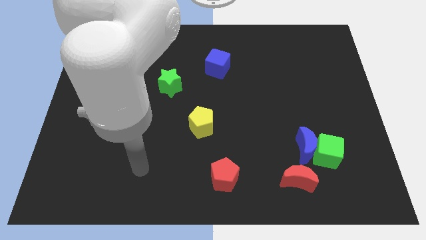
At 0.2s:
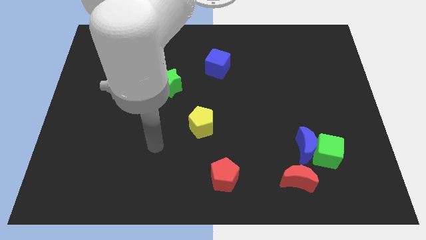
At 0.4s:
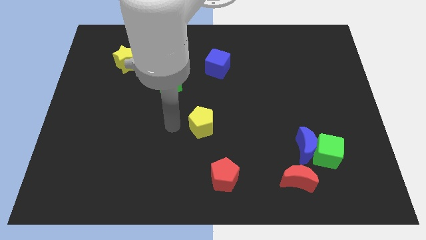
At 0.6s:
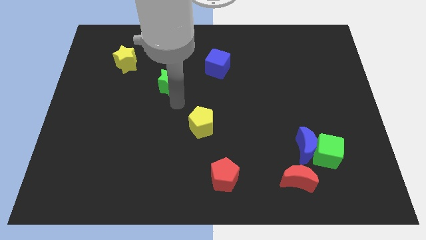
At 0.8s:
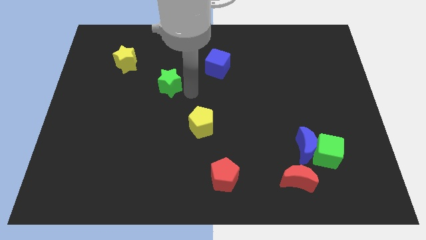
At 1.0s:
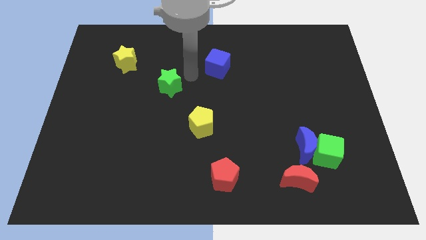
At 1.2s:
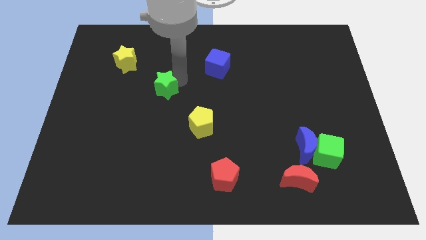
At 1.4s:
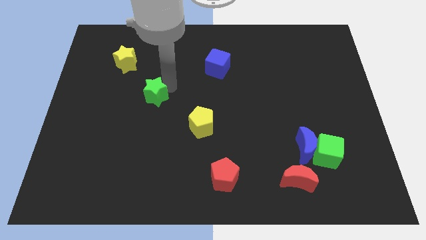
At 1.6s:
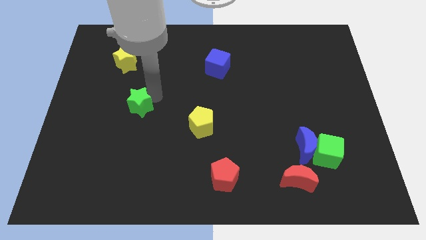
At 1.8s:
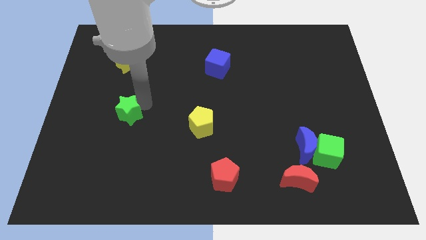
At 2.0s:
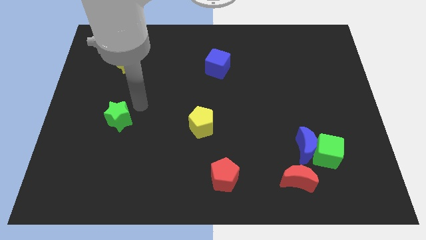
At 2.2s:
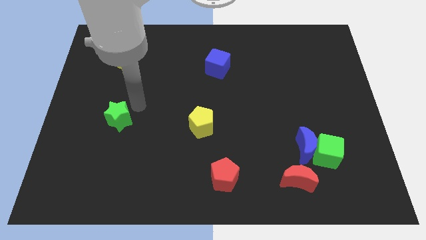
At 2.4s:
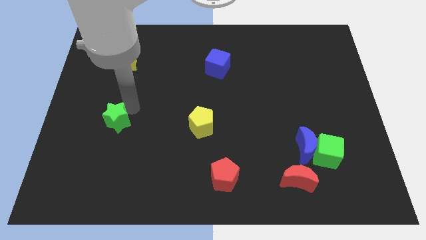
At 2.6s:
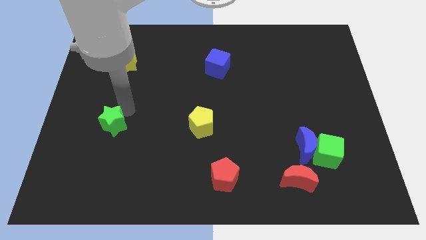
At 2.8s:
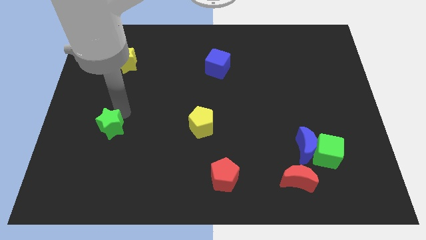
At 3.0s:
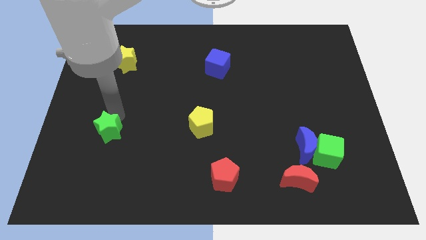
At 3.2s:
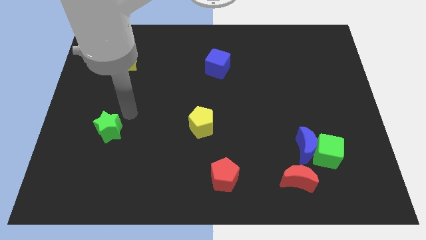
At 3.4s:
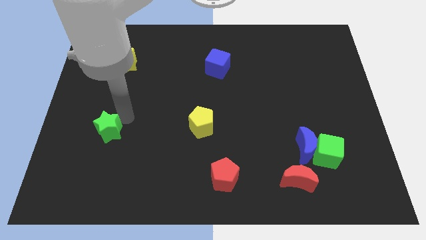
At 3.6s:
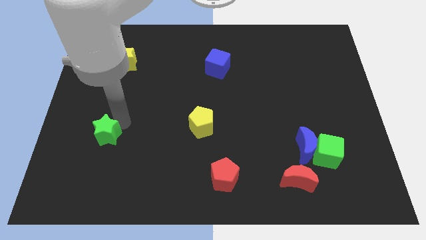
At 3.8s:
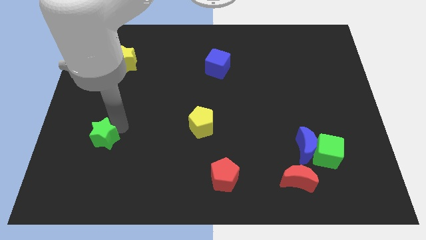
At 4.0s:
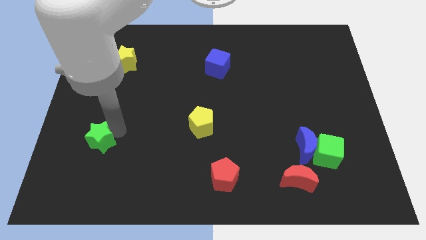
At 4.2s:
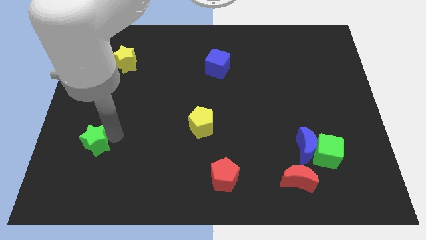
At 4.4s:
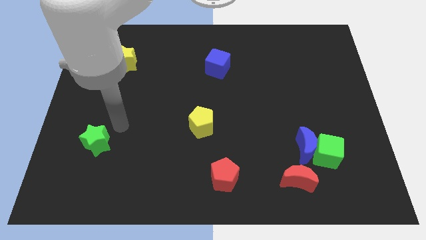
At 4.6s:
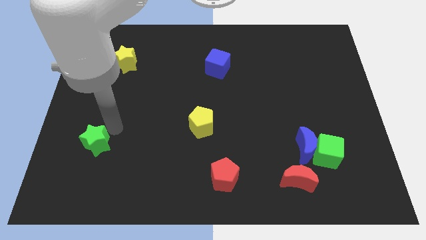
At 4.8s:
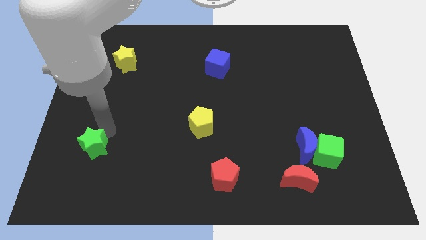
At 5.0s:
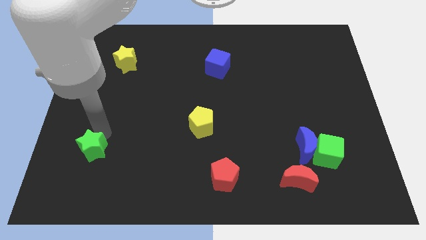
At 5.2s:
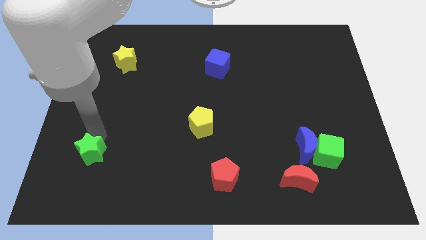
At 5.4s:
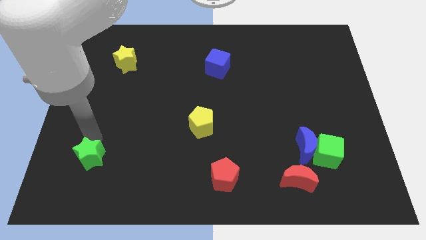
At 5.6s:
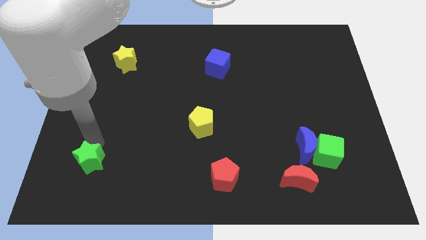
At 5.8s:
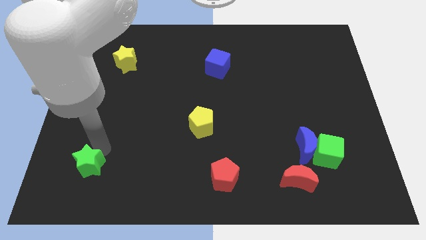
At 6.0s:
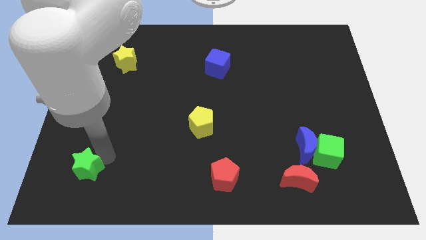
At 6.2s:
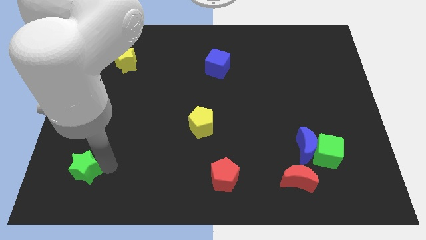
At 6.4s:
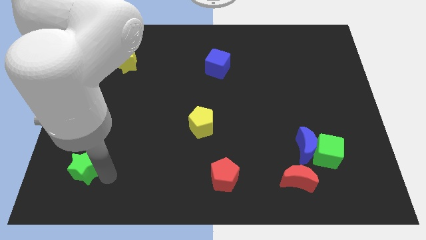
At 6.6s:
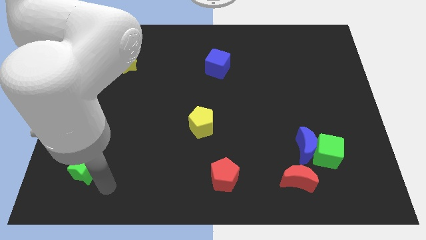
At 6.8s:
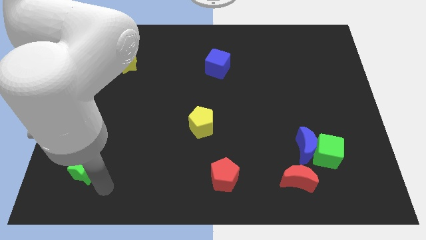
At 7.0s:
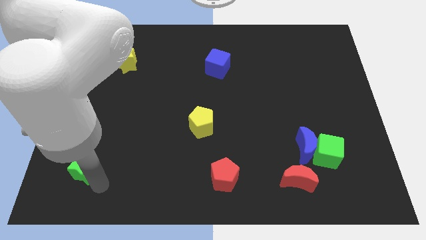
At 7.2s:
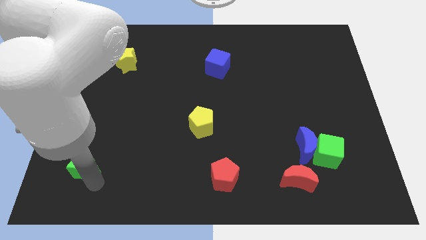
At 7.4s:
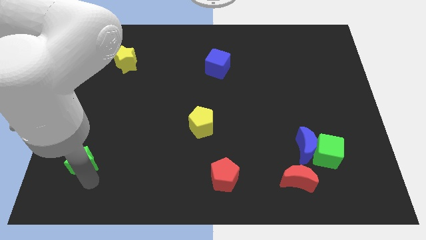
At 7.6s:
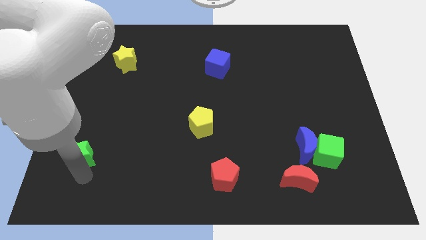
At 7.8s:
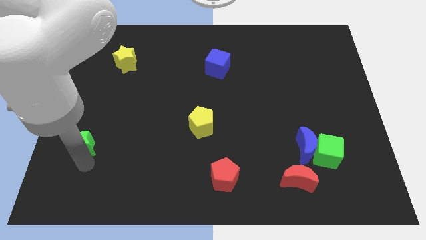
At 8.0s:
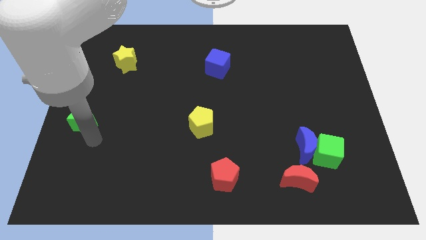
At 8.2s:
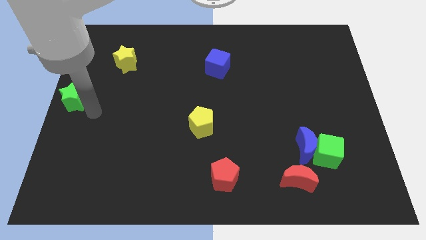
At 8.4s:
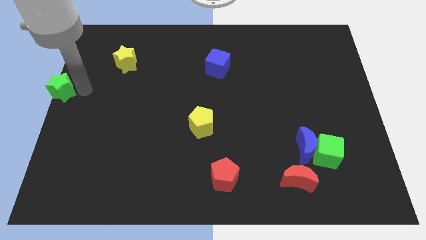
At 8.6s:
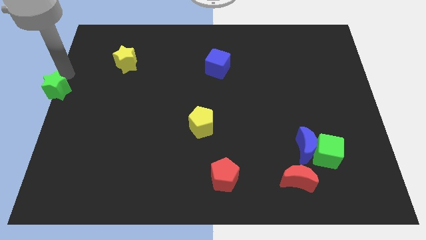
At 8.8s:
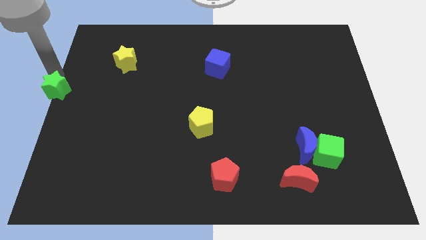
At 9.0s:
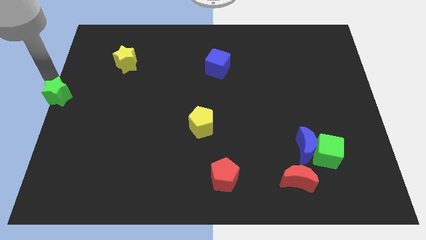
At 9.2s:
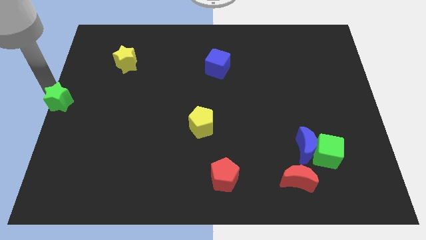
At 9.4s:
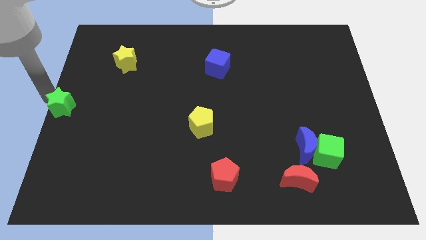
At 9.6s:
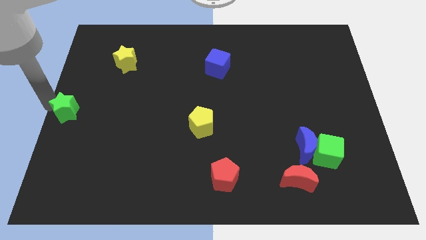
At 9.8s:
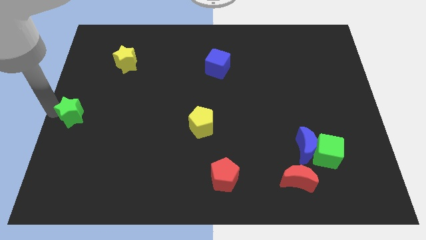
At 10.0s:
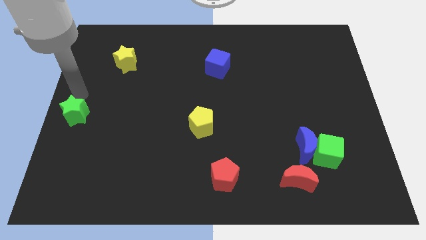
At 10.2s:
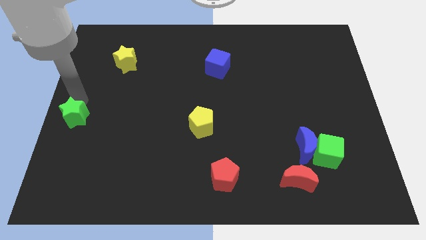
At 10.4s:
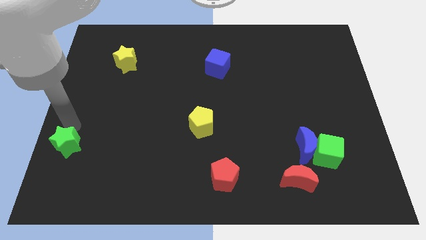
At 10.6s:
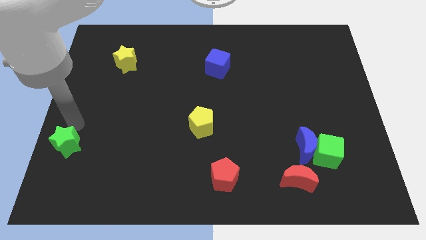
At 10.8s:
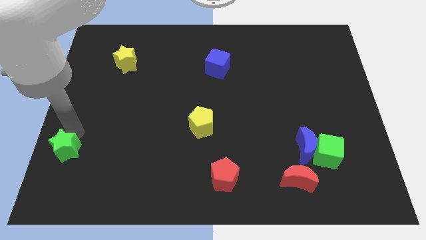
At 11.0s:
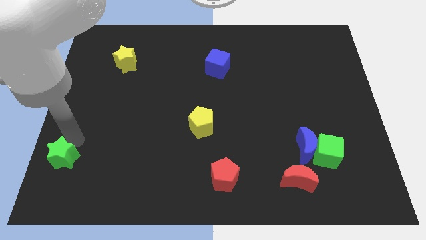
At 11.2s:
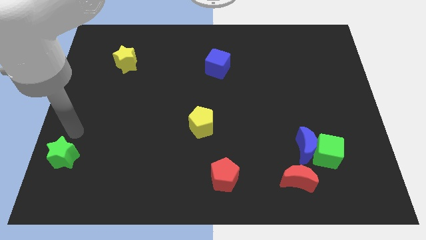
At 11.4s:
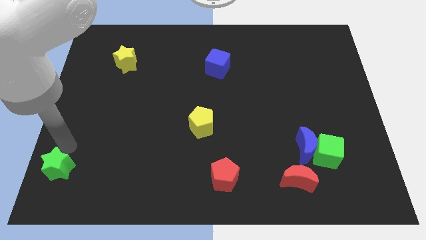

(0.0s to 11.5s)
put the green star to the lower left corner

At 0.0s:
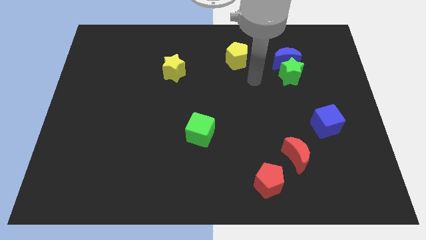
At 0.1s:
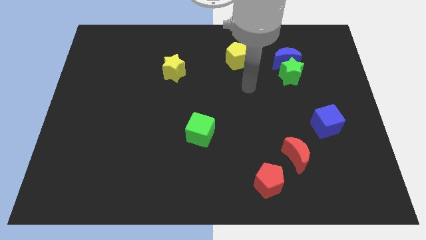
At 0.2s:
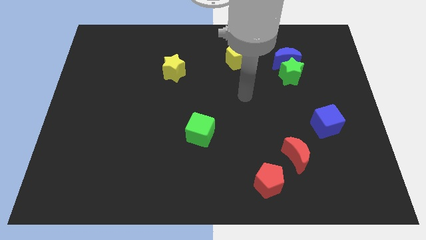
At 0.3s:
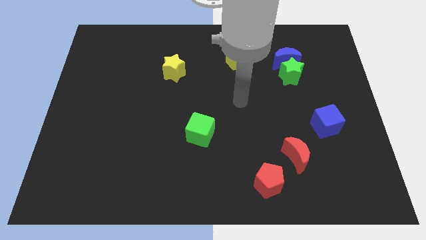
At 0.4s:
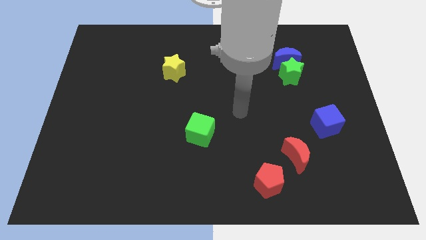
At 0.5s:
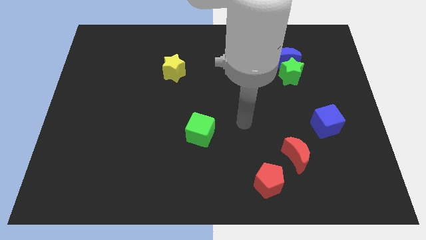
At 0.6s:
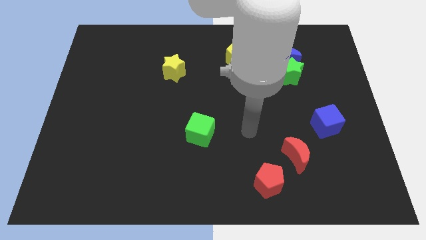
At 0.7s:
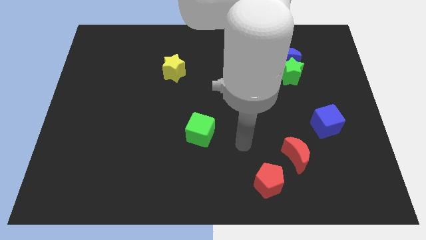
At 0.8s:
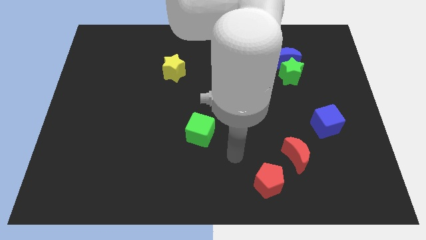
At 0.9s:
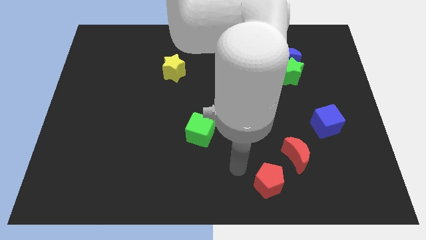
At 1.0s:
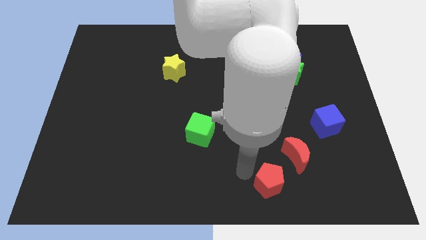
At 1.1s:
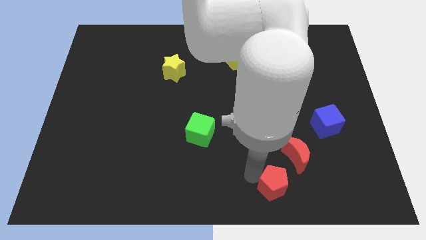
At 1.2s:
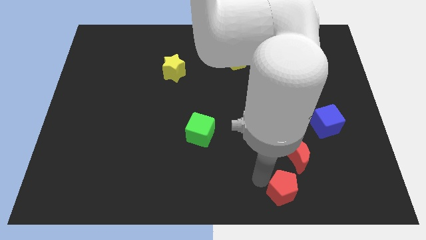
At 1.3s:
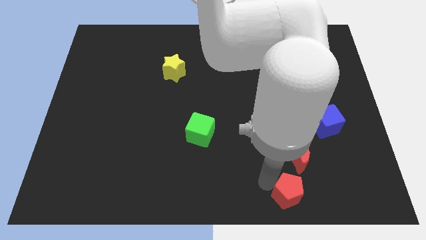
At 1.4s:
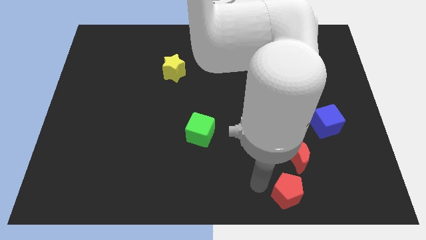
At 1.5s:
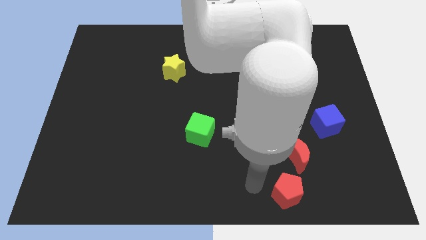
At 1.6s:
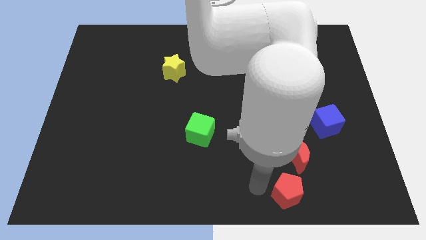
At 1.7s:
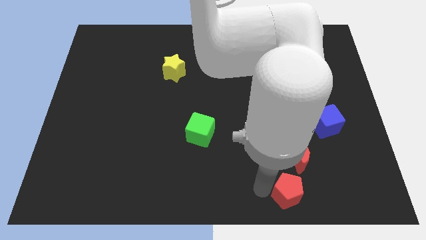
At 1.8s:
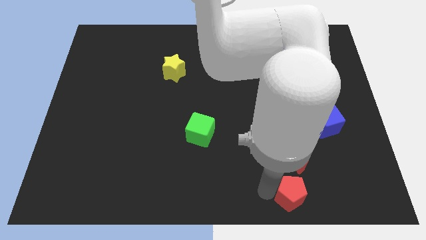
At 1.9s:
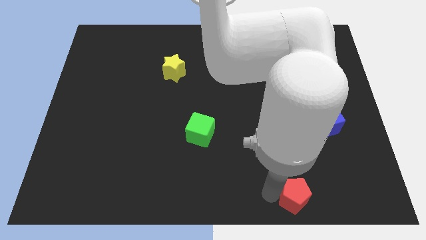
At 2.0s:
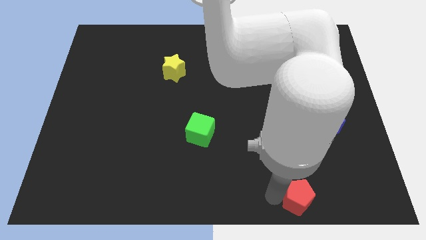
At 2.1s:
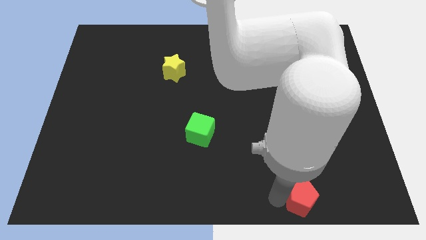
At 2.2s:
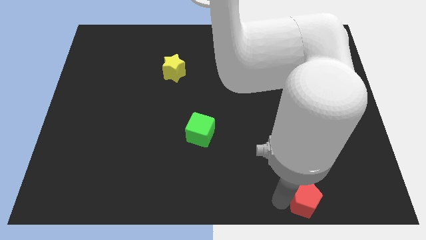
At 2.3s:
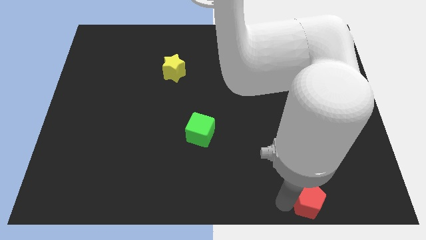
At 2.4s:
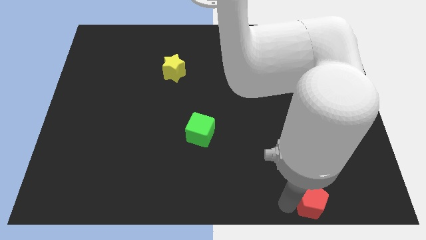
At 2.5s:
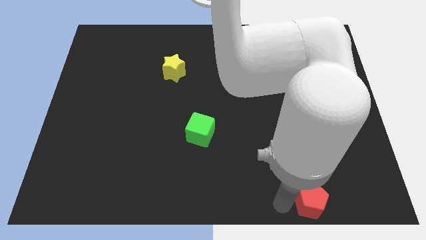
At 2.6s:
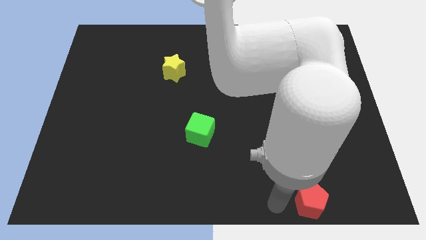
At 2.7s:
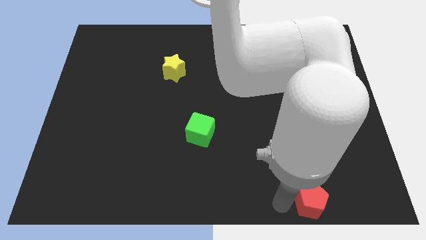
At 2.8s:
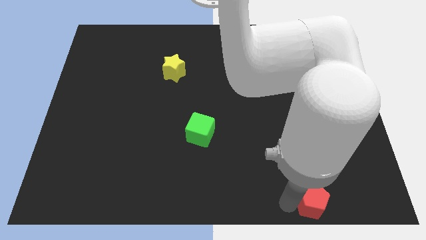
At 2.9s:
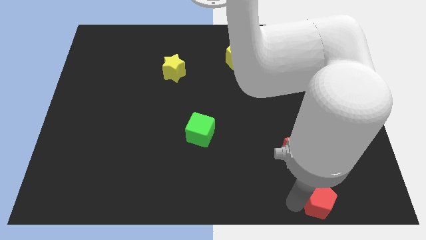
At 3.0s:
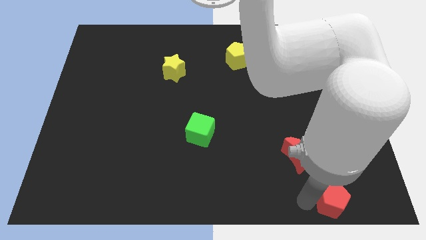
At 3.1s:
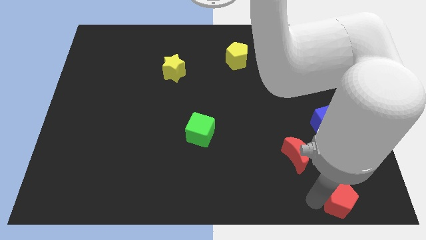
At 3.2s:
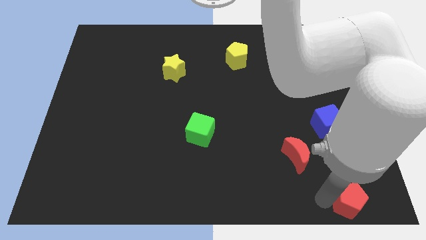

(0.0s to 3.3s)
move the red pentagon to the bottom right corner
